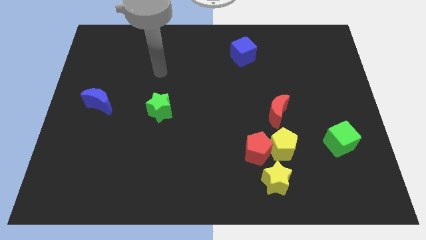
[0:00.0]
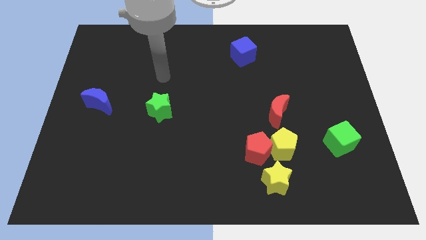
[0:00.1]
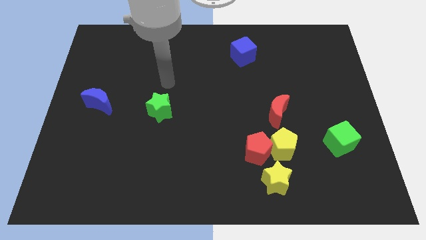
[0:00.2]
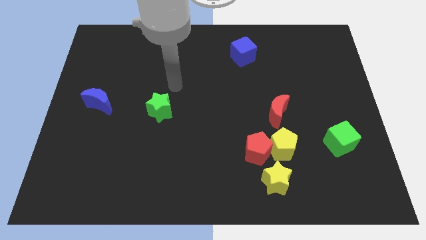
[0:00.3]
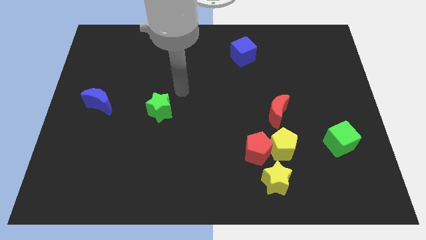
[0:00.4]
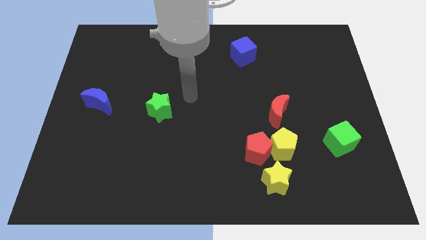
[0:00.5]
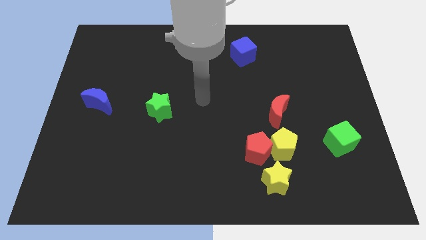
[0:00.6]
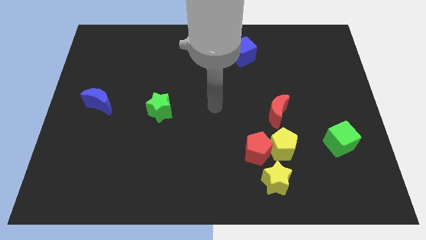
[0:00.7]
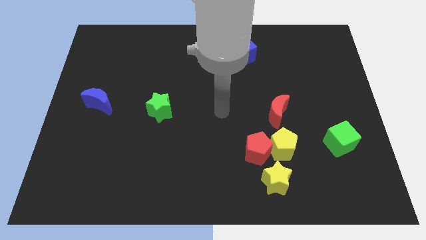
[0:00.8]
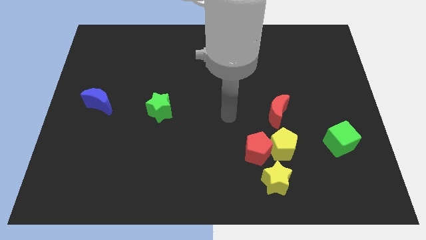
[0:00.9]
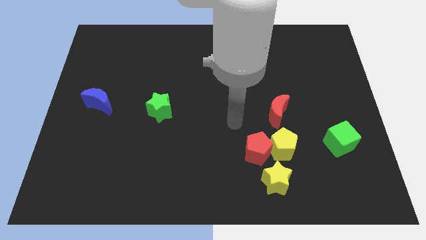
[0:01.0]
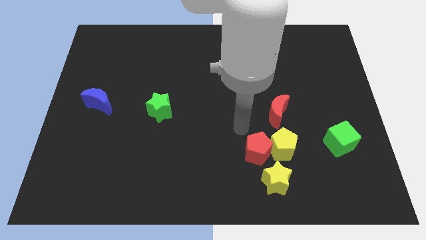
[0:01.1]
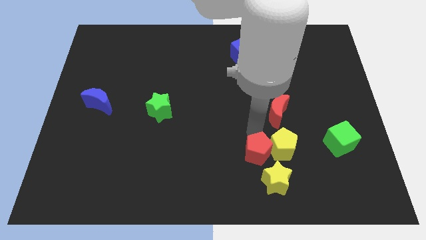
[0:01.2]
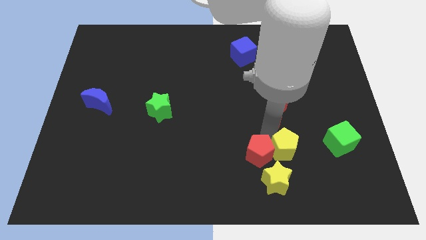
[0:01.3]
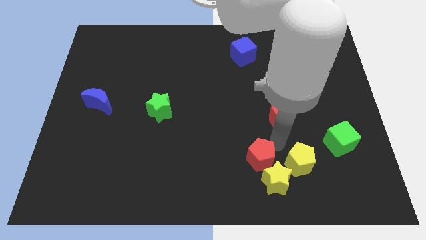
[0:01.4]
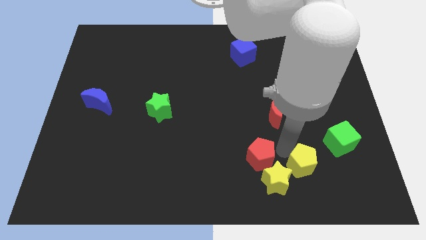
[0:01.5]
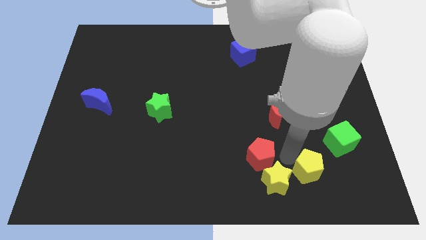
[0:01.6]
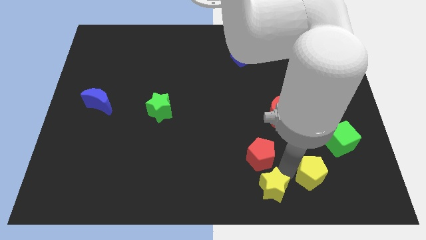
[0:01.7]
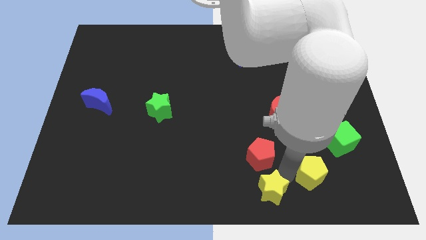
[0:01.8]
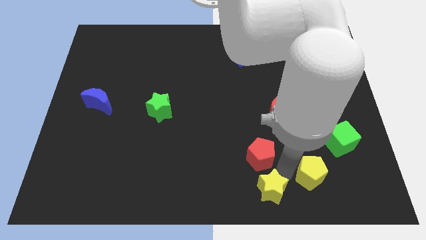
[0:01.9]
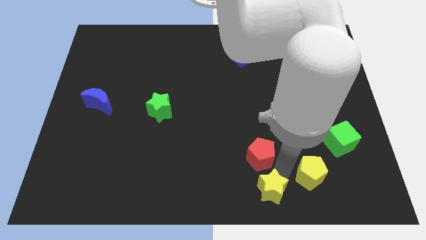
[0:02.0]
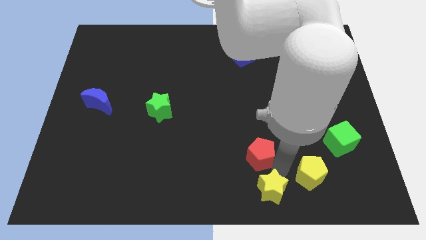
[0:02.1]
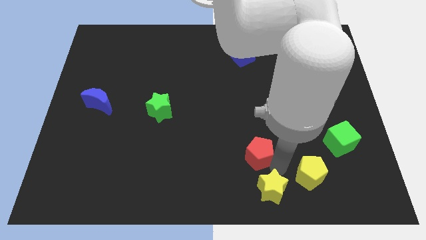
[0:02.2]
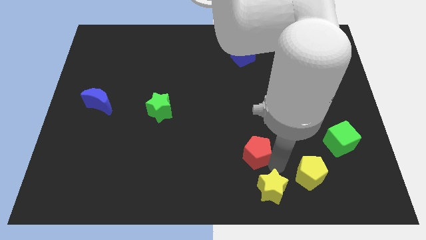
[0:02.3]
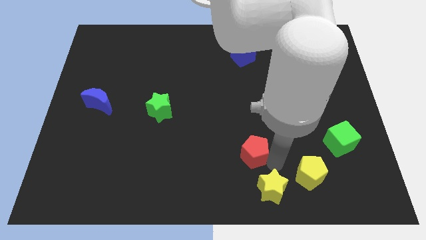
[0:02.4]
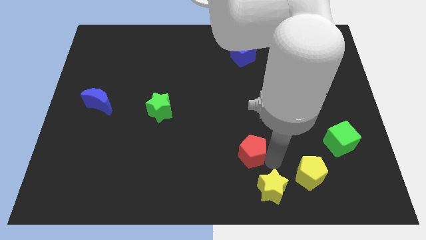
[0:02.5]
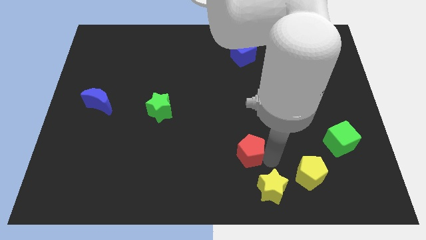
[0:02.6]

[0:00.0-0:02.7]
pull the red pentagon apart from the yellow pentagon and yellow star

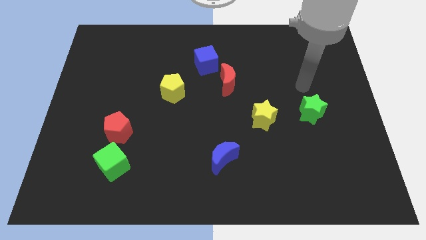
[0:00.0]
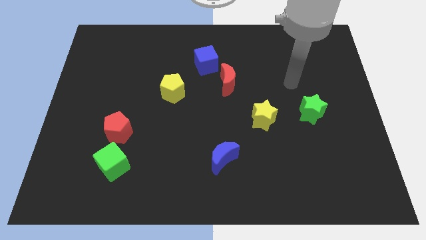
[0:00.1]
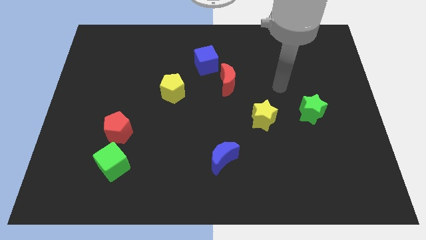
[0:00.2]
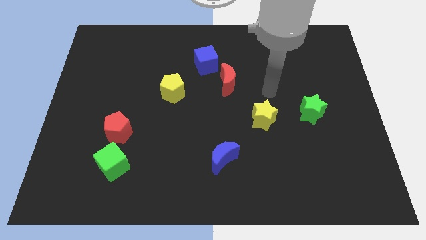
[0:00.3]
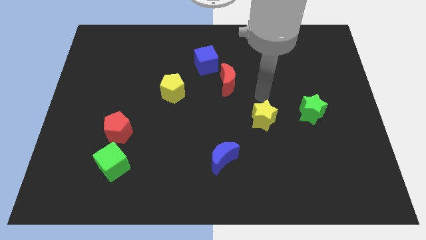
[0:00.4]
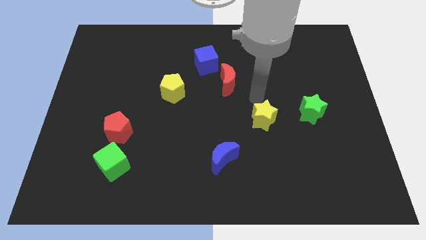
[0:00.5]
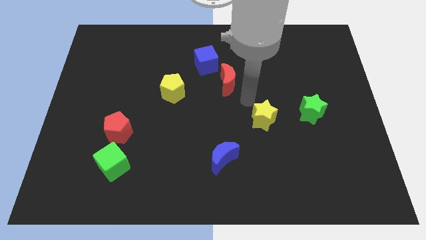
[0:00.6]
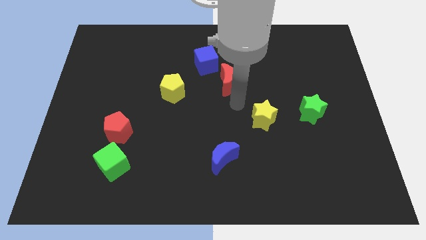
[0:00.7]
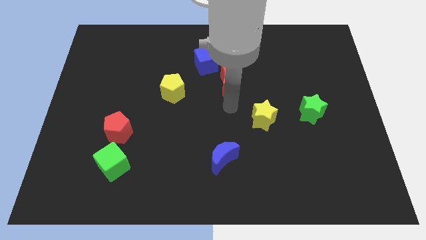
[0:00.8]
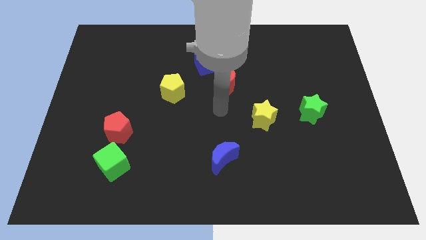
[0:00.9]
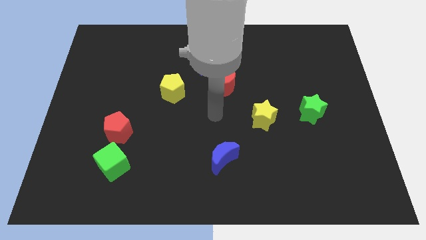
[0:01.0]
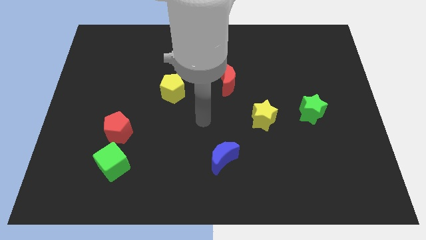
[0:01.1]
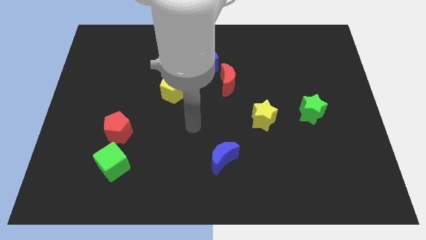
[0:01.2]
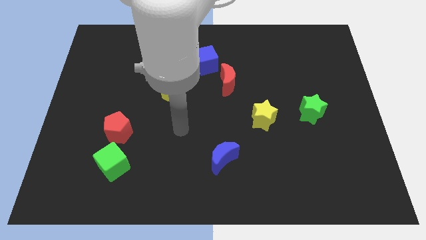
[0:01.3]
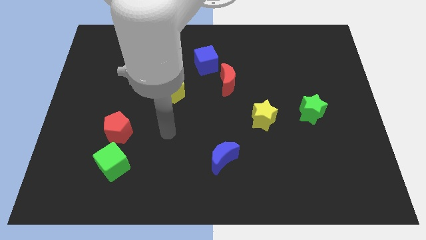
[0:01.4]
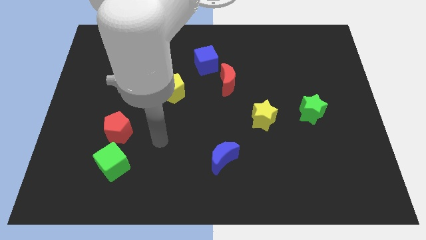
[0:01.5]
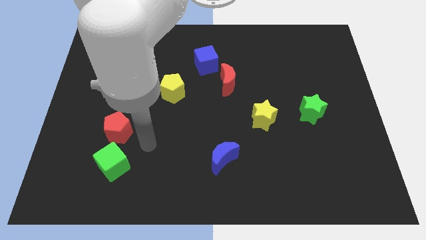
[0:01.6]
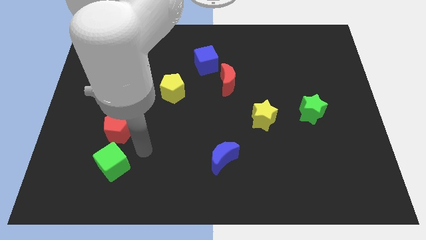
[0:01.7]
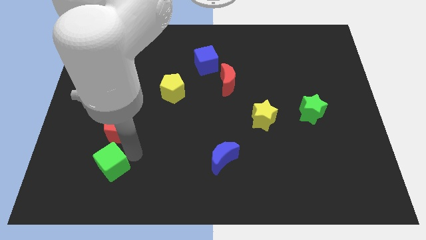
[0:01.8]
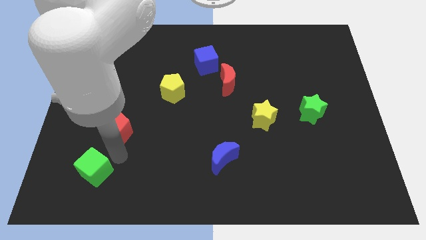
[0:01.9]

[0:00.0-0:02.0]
move the red pentagon away from the green cube

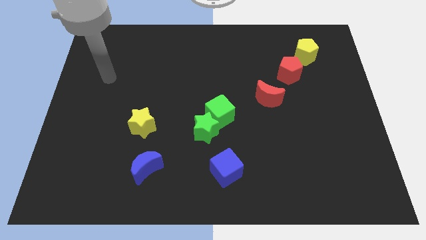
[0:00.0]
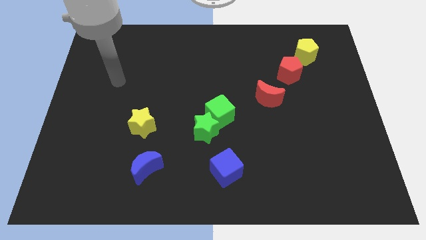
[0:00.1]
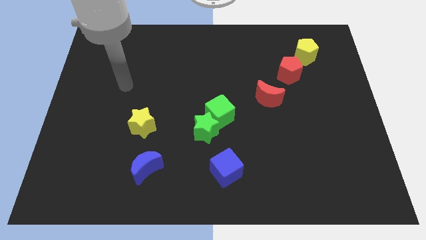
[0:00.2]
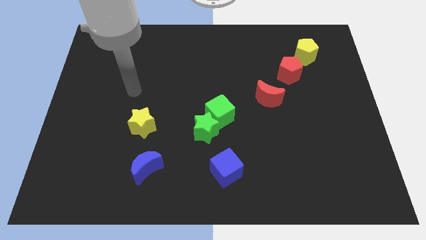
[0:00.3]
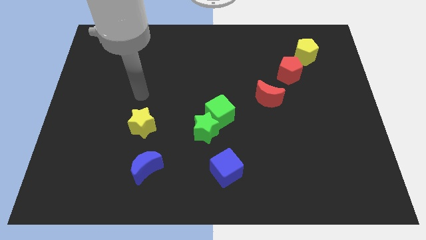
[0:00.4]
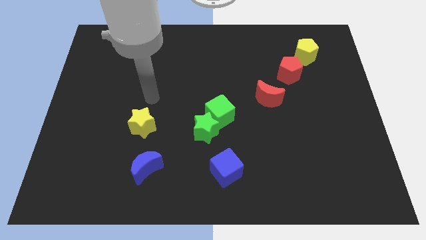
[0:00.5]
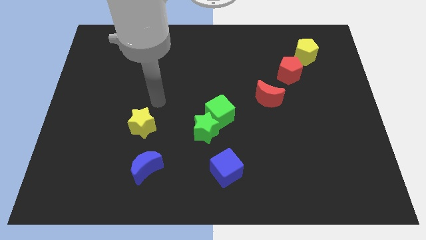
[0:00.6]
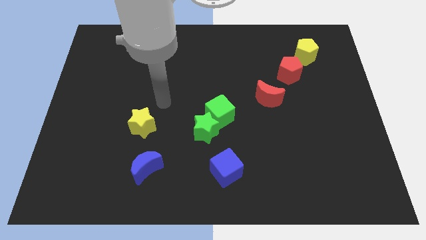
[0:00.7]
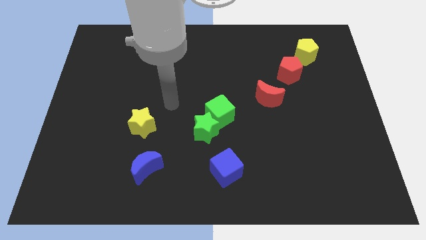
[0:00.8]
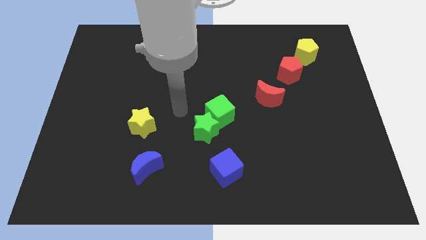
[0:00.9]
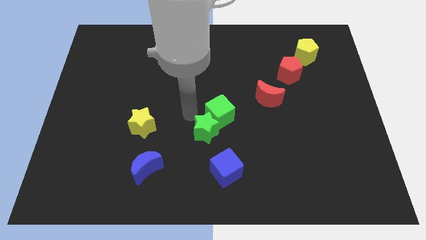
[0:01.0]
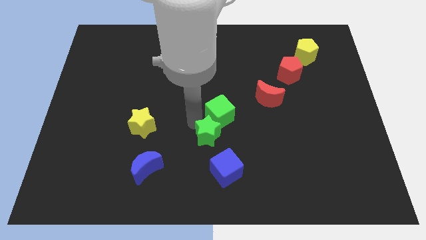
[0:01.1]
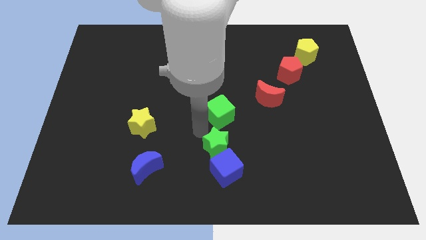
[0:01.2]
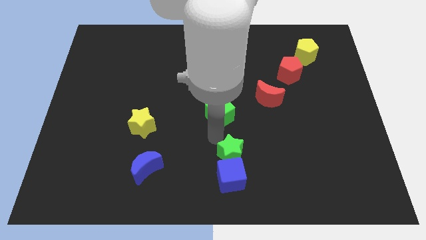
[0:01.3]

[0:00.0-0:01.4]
pull the green cube apart from the green star

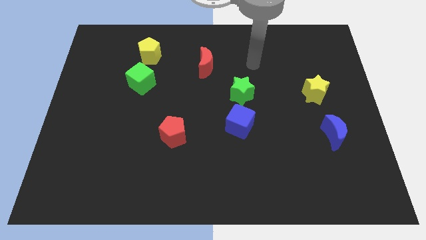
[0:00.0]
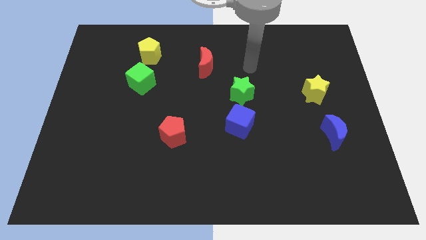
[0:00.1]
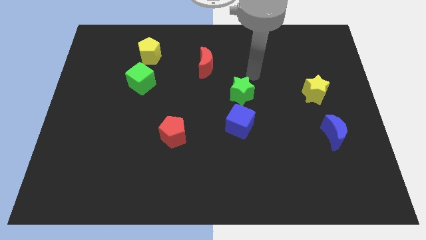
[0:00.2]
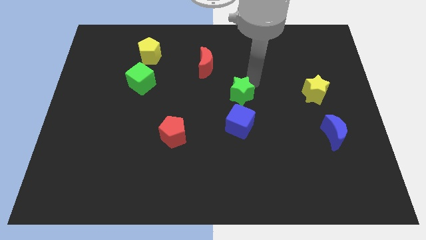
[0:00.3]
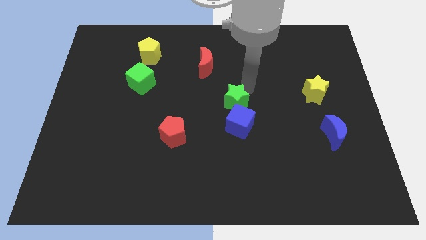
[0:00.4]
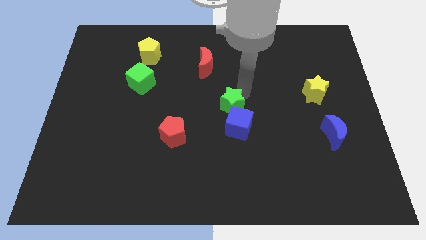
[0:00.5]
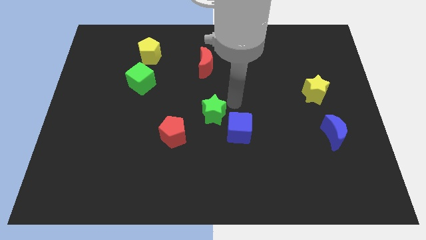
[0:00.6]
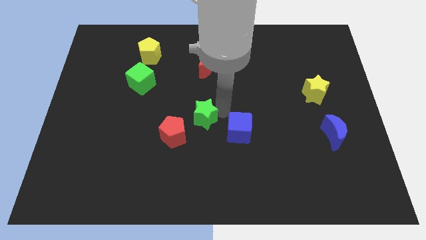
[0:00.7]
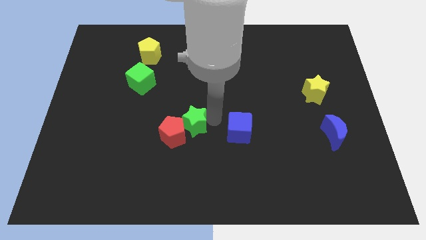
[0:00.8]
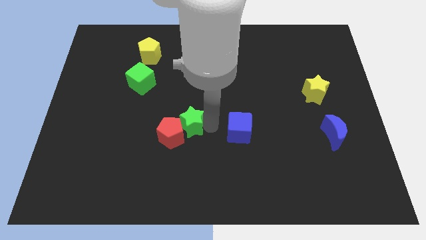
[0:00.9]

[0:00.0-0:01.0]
separate the blue cube from the green star

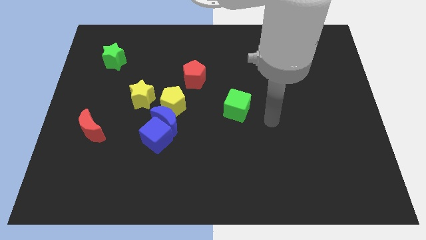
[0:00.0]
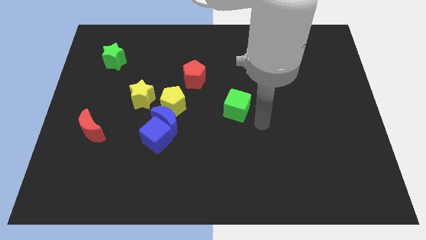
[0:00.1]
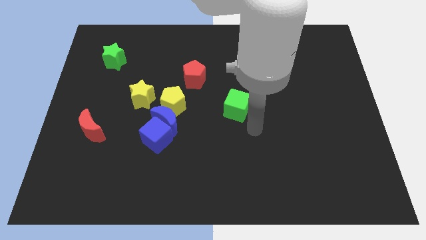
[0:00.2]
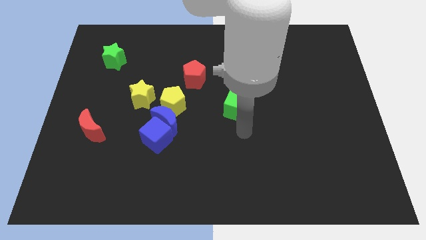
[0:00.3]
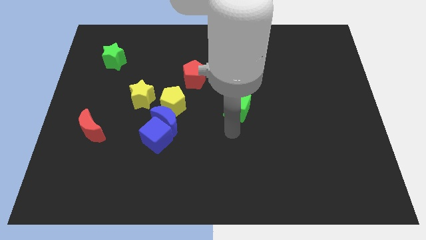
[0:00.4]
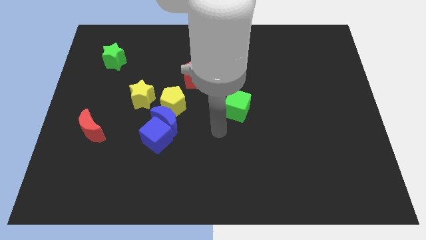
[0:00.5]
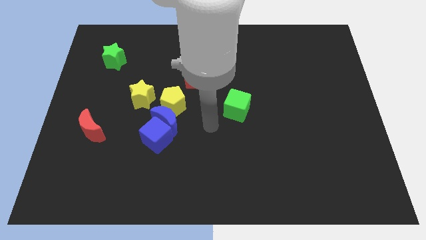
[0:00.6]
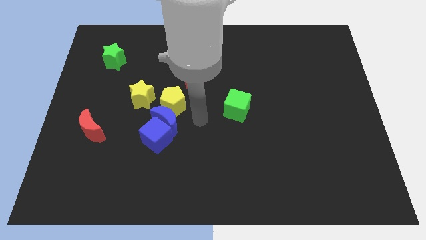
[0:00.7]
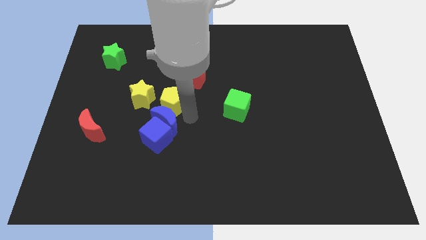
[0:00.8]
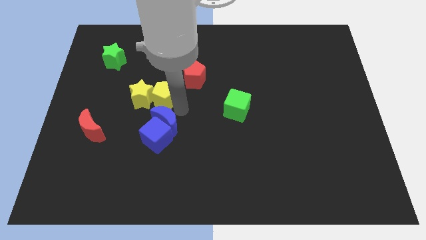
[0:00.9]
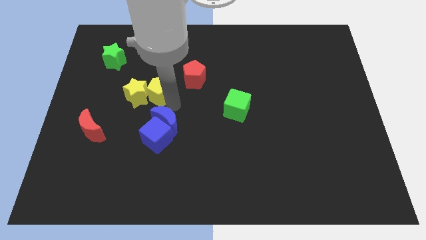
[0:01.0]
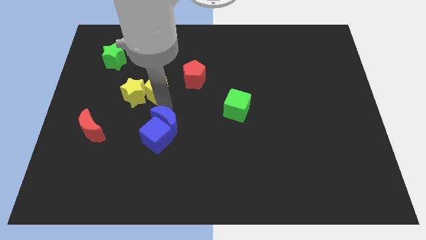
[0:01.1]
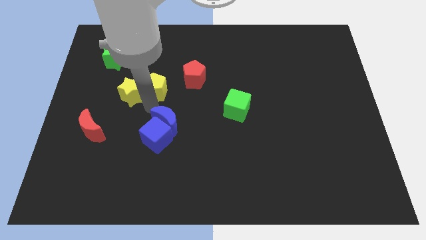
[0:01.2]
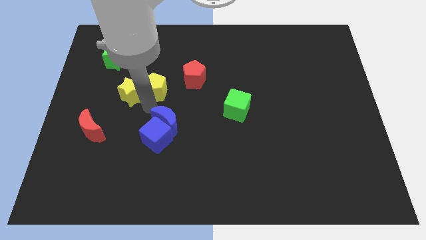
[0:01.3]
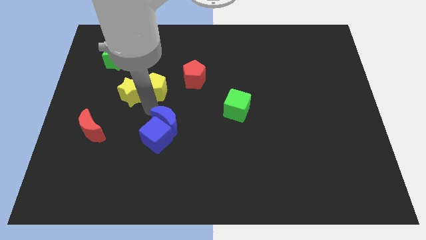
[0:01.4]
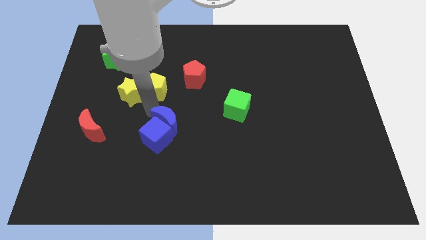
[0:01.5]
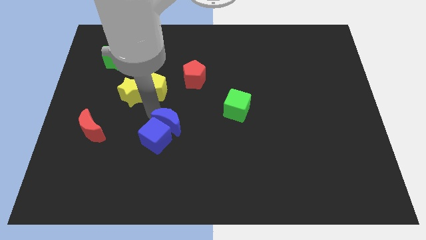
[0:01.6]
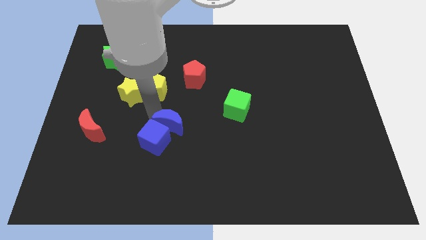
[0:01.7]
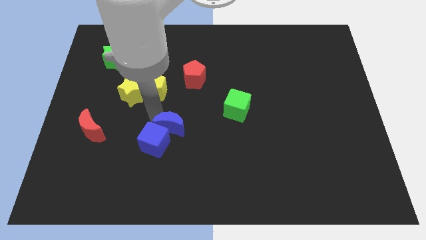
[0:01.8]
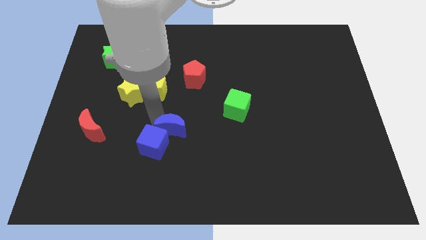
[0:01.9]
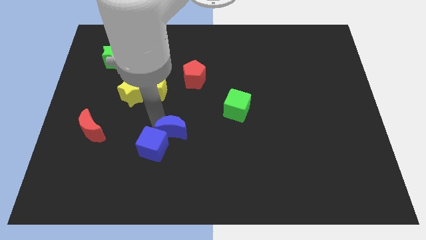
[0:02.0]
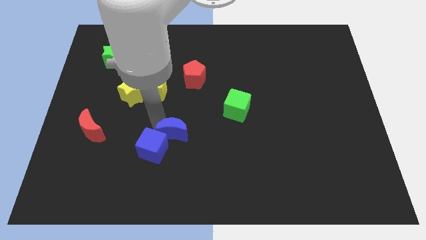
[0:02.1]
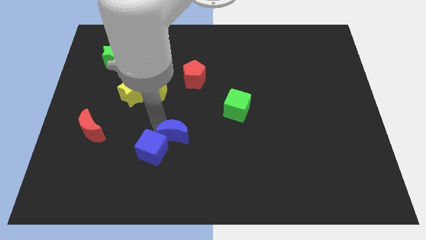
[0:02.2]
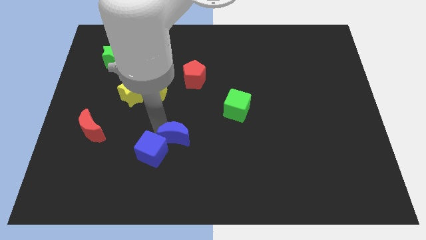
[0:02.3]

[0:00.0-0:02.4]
separate the blue moon from the group of blocks
